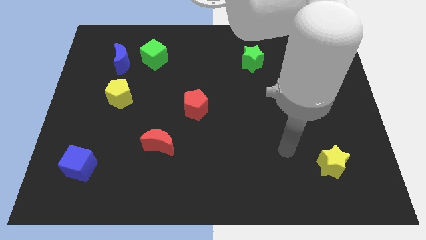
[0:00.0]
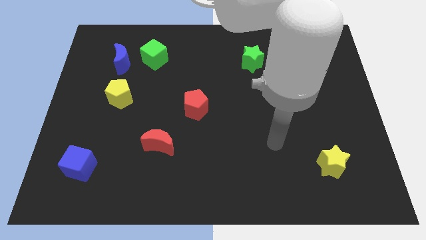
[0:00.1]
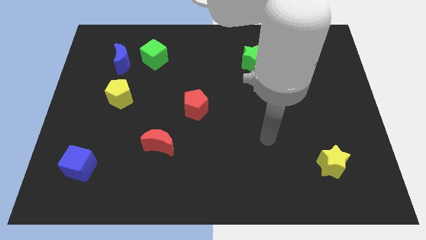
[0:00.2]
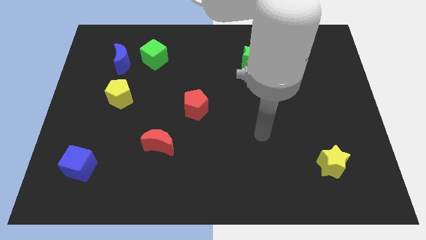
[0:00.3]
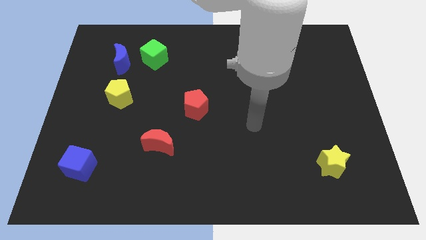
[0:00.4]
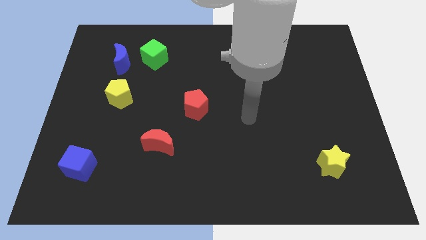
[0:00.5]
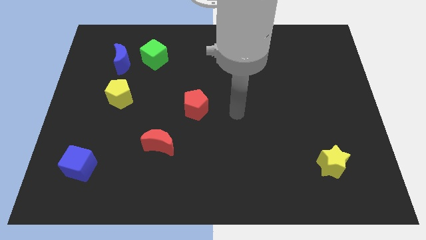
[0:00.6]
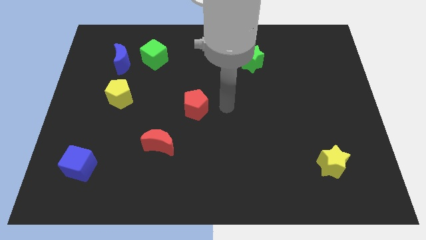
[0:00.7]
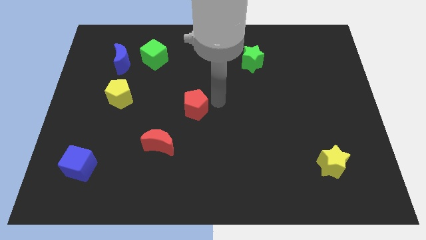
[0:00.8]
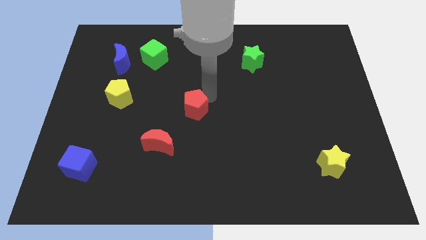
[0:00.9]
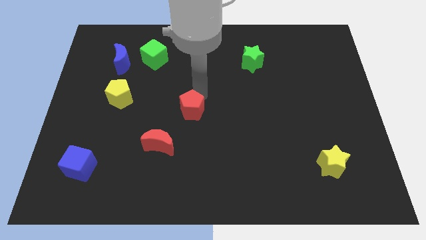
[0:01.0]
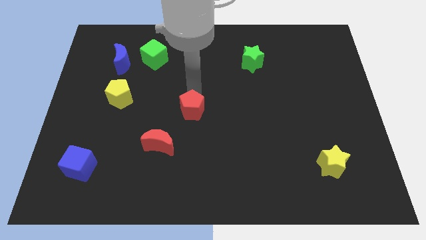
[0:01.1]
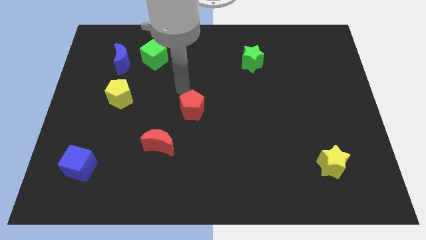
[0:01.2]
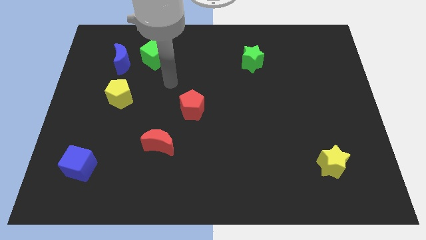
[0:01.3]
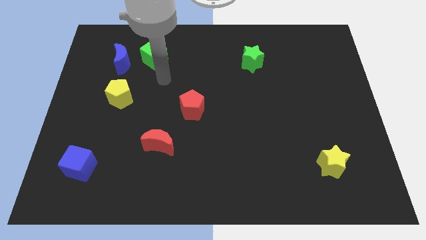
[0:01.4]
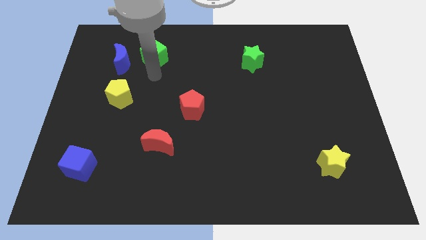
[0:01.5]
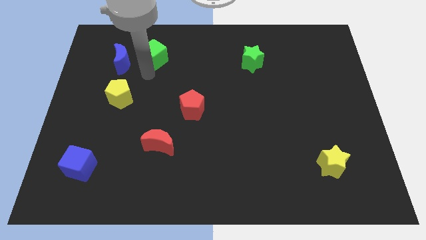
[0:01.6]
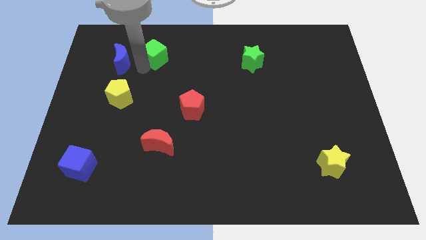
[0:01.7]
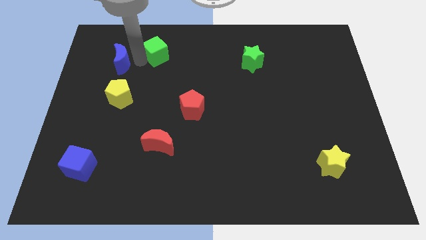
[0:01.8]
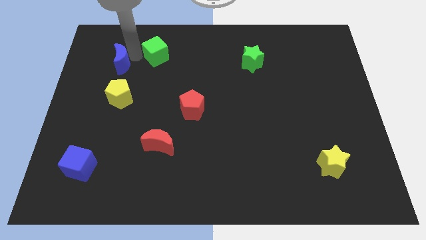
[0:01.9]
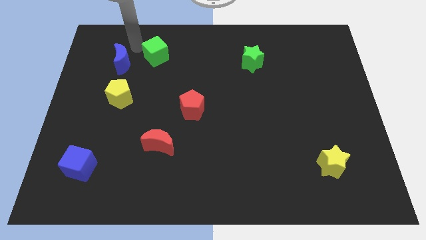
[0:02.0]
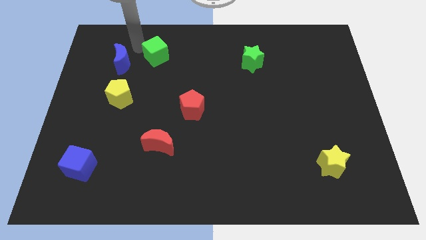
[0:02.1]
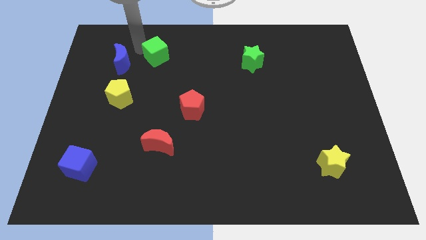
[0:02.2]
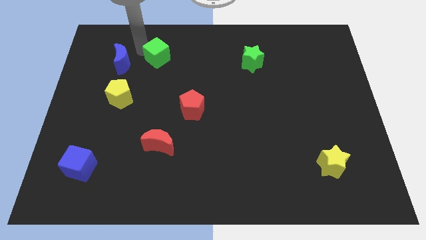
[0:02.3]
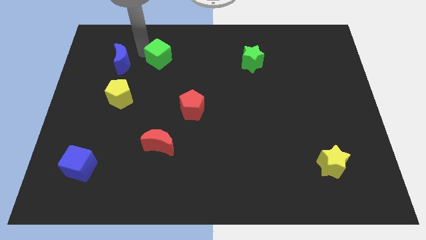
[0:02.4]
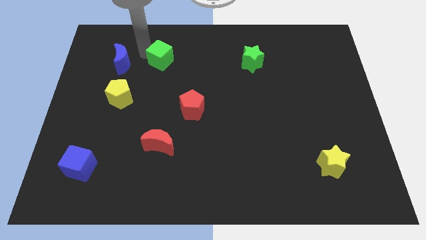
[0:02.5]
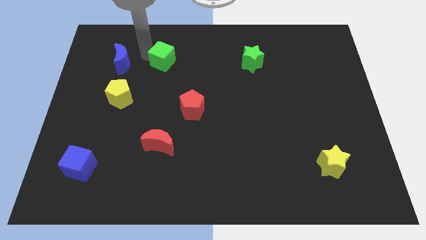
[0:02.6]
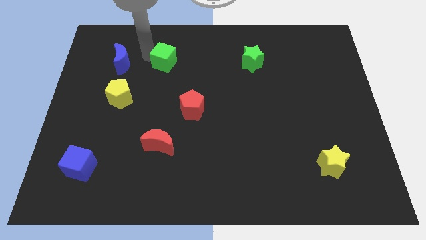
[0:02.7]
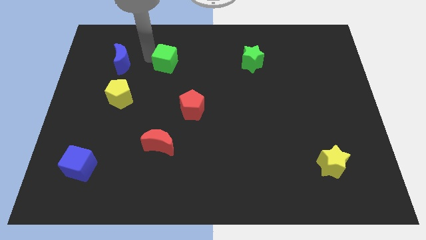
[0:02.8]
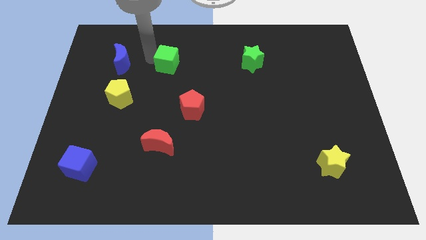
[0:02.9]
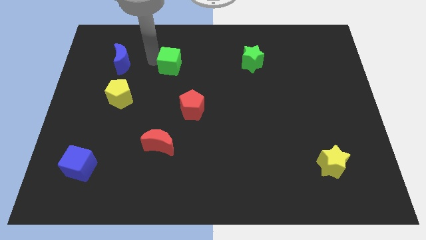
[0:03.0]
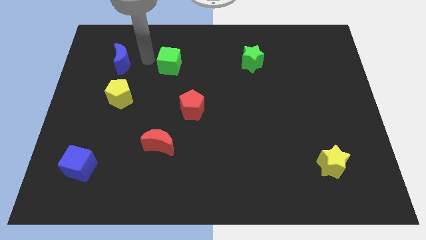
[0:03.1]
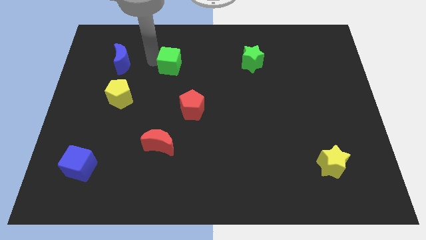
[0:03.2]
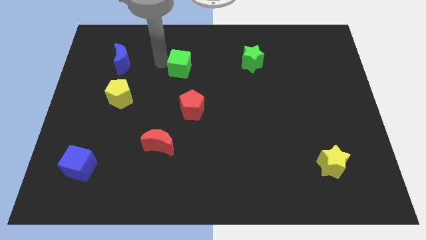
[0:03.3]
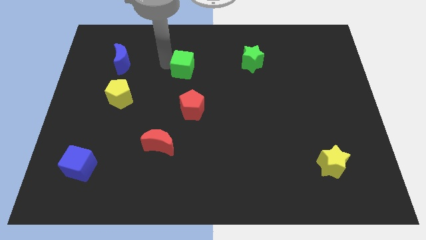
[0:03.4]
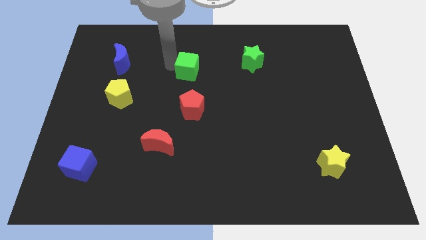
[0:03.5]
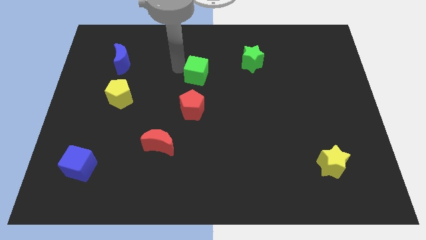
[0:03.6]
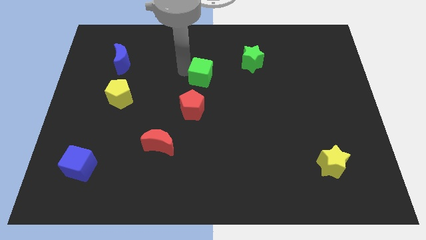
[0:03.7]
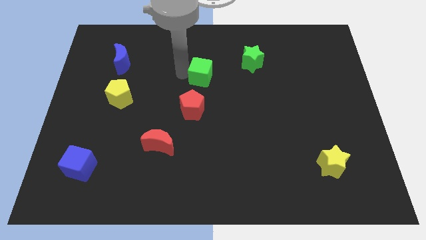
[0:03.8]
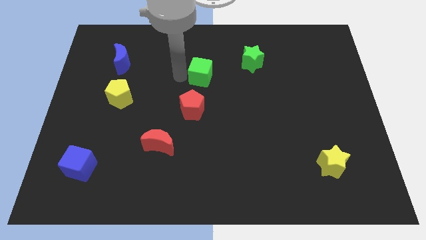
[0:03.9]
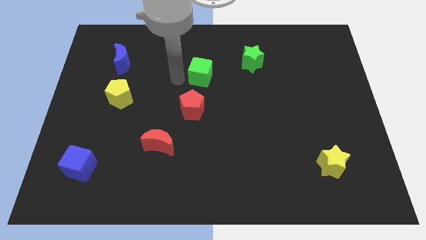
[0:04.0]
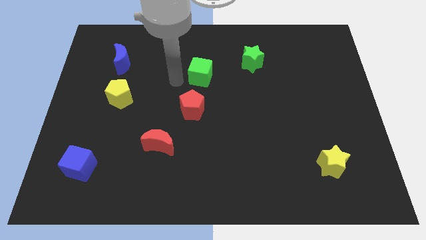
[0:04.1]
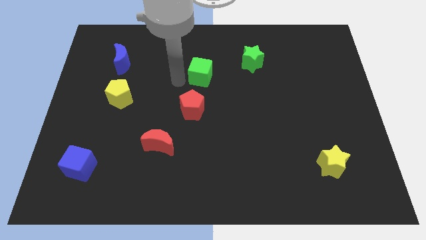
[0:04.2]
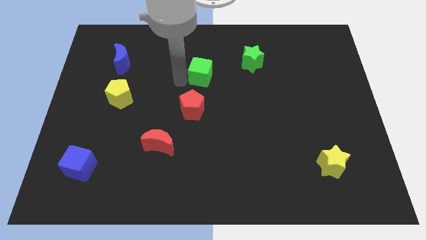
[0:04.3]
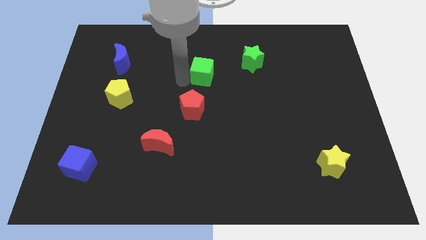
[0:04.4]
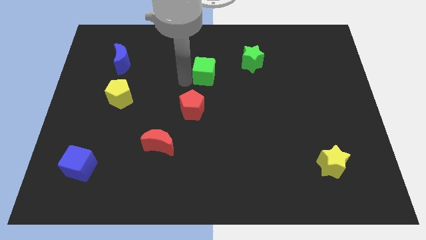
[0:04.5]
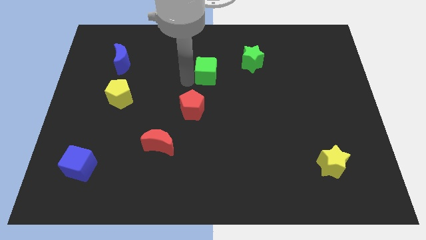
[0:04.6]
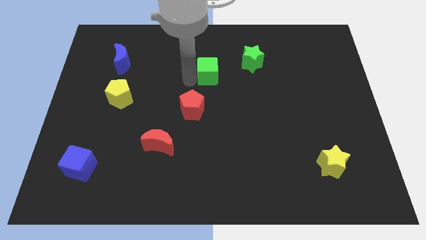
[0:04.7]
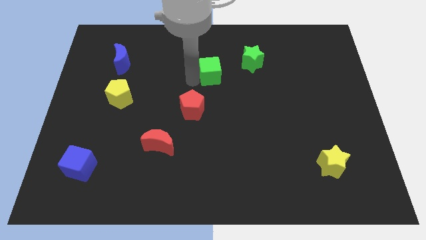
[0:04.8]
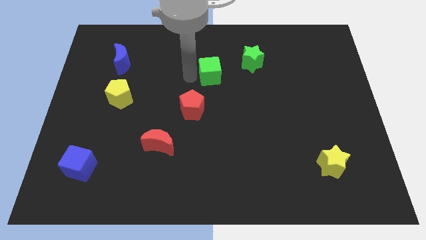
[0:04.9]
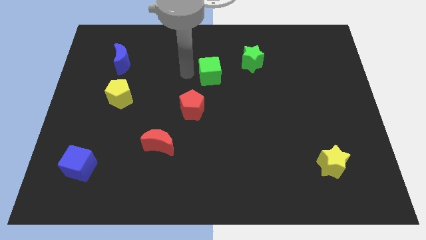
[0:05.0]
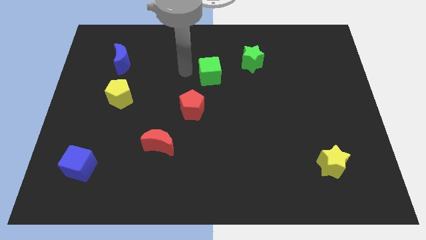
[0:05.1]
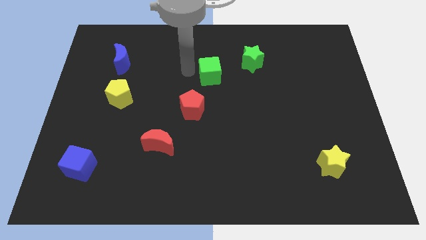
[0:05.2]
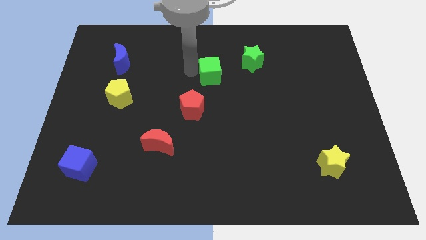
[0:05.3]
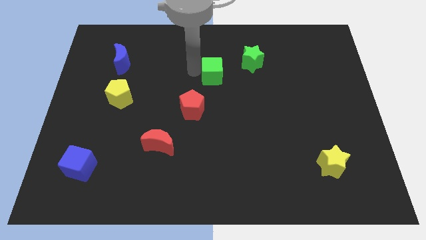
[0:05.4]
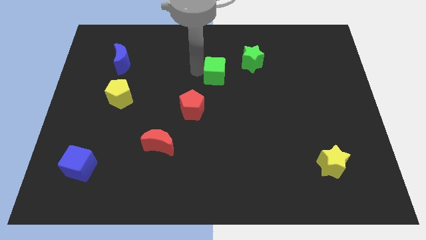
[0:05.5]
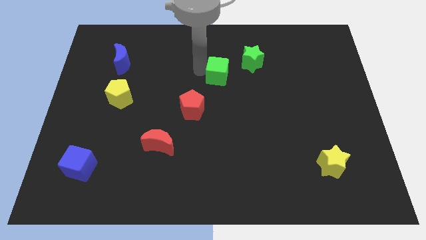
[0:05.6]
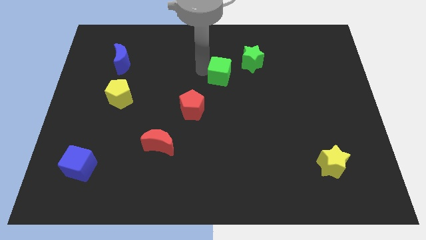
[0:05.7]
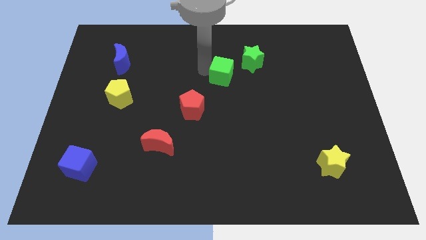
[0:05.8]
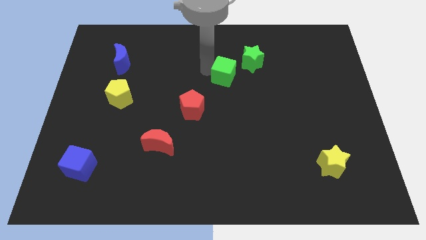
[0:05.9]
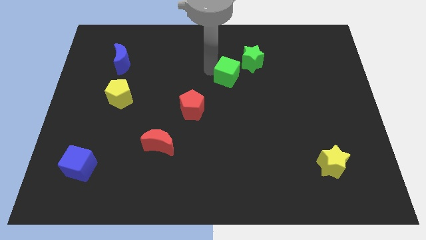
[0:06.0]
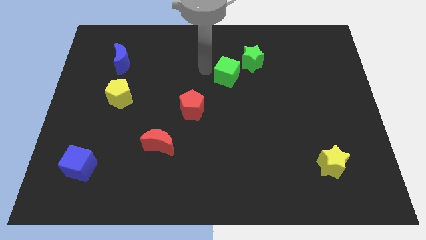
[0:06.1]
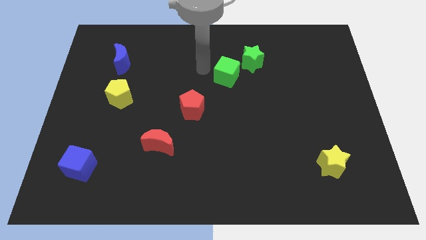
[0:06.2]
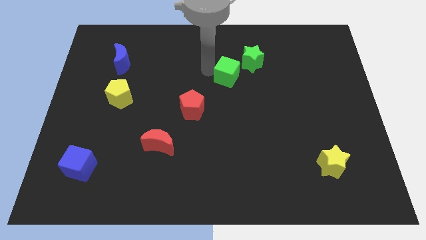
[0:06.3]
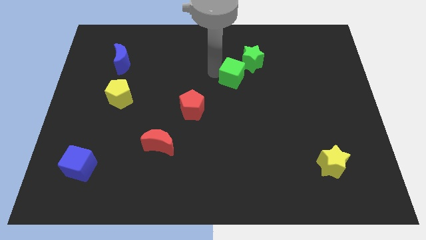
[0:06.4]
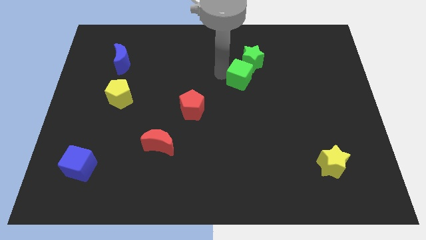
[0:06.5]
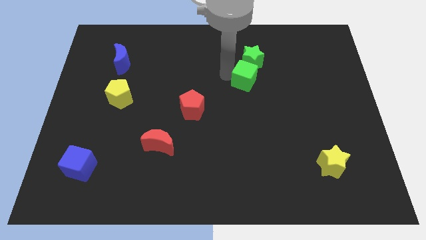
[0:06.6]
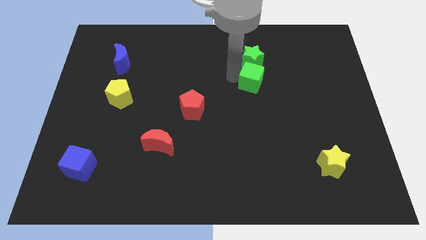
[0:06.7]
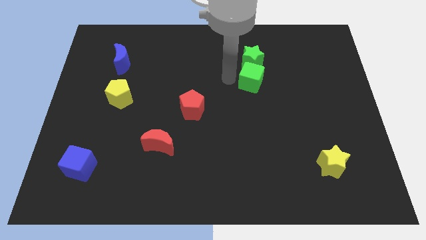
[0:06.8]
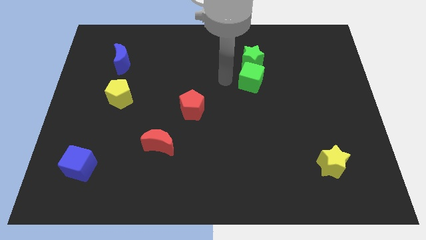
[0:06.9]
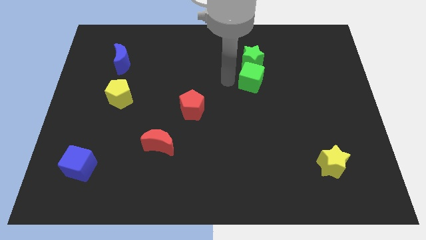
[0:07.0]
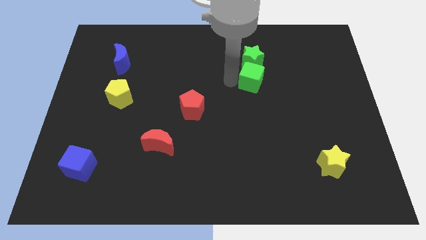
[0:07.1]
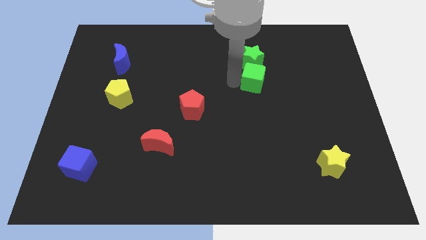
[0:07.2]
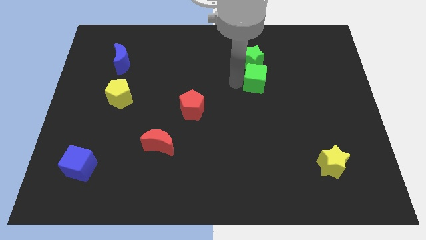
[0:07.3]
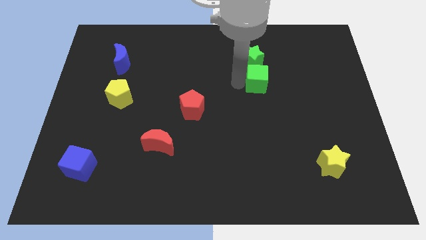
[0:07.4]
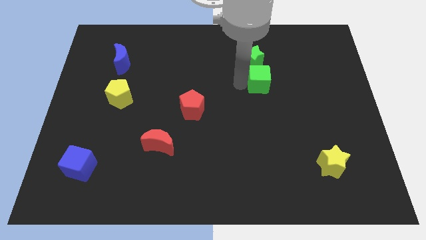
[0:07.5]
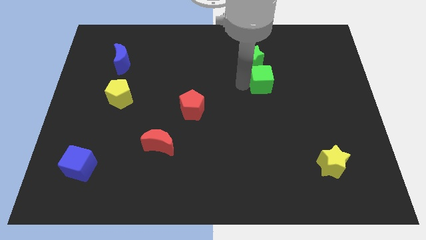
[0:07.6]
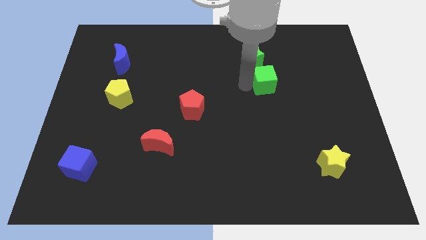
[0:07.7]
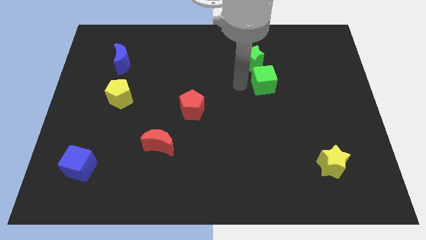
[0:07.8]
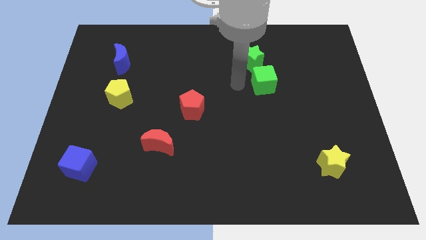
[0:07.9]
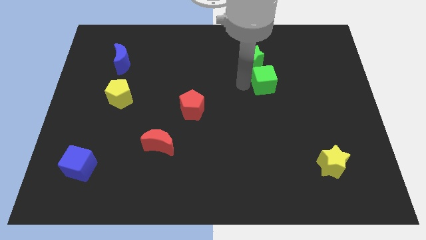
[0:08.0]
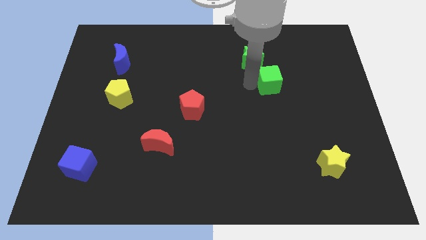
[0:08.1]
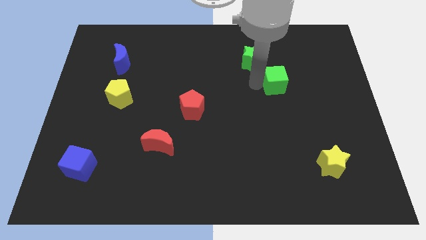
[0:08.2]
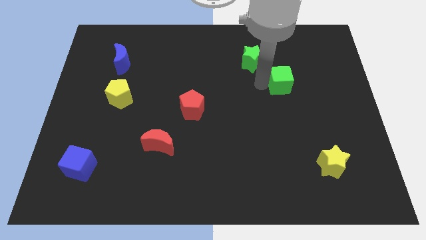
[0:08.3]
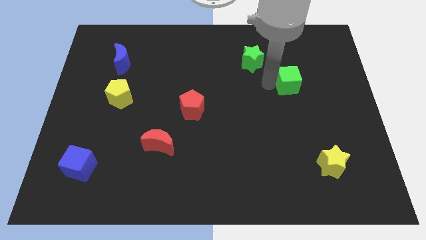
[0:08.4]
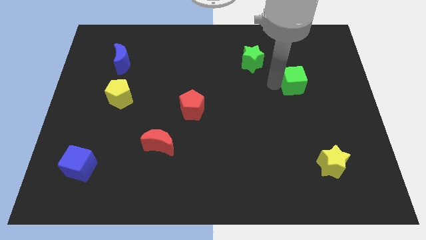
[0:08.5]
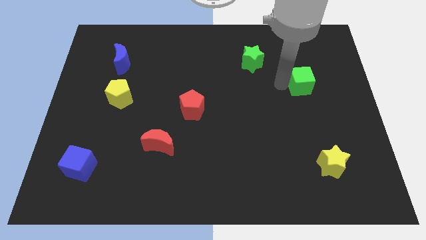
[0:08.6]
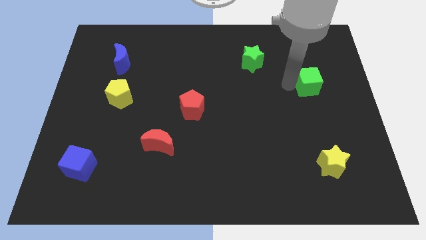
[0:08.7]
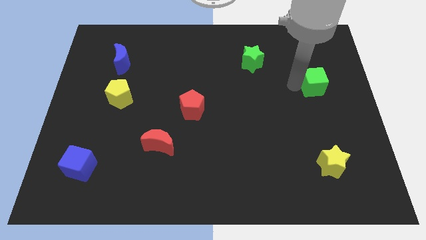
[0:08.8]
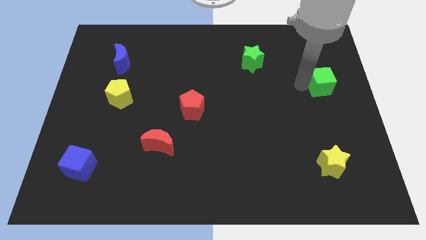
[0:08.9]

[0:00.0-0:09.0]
push the green cube to the right side of the board
